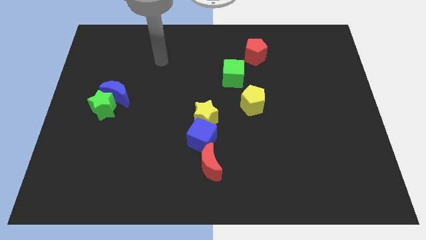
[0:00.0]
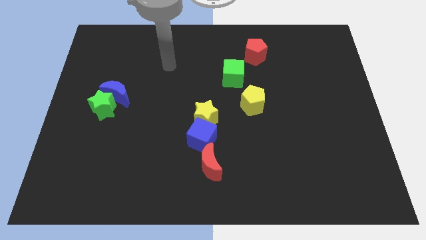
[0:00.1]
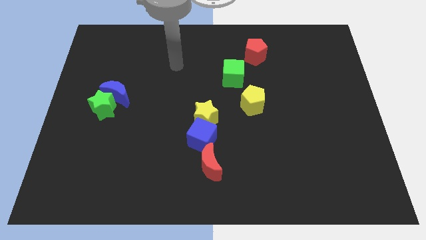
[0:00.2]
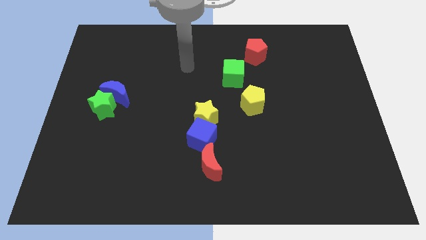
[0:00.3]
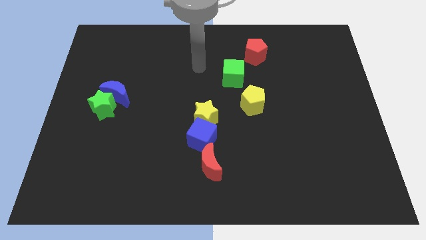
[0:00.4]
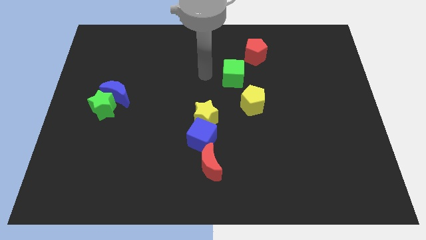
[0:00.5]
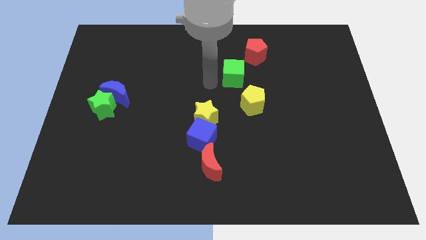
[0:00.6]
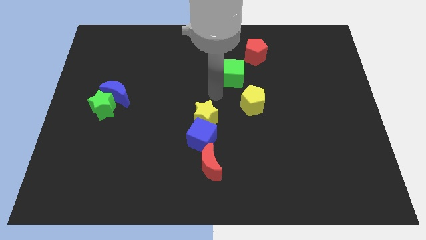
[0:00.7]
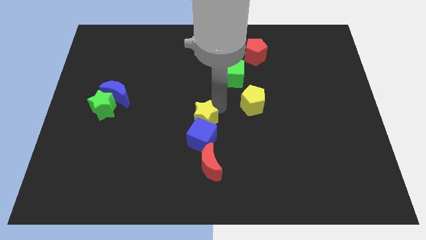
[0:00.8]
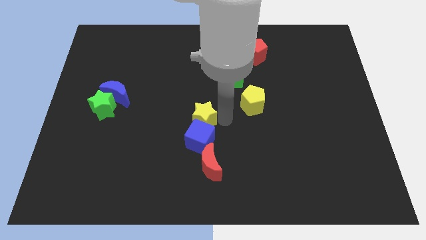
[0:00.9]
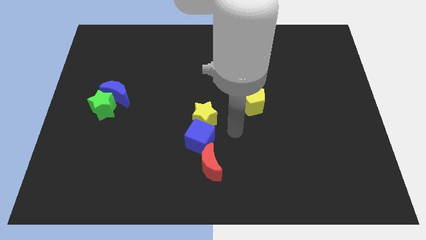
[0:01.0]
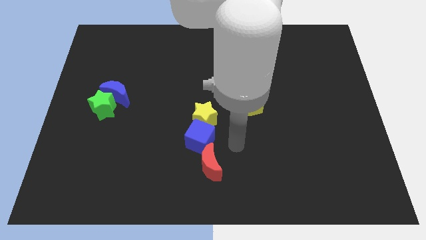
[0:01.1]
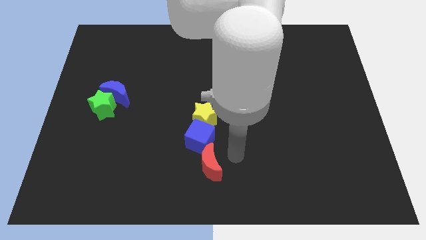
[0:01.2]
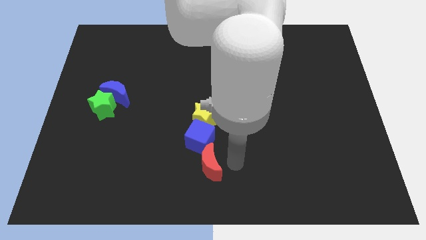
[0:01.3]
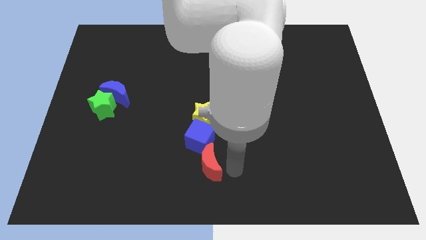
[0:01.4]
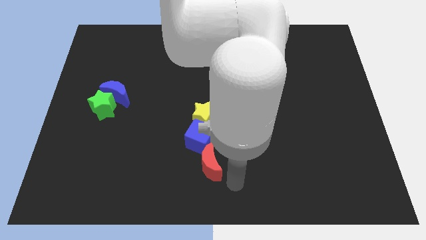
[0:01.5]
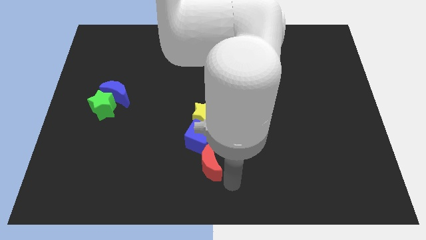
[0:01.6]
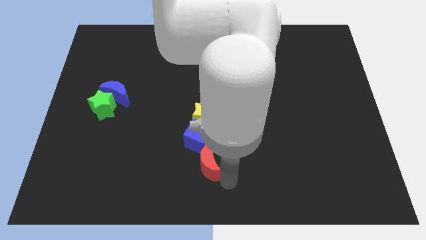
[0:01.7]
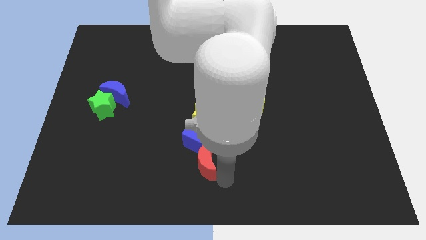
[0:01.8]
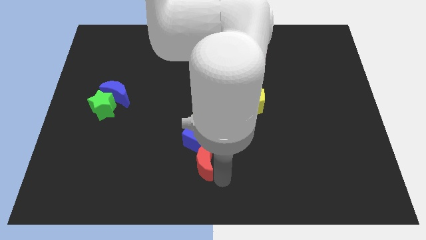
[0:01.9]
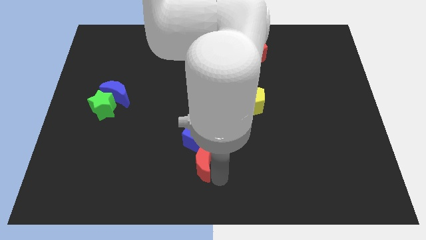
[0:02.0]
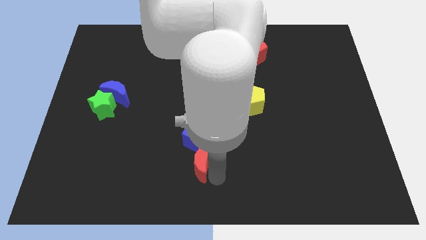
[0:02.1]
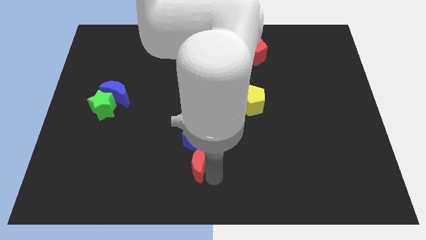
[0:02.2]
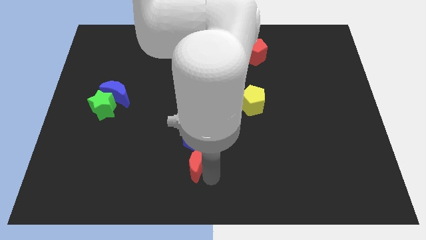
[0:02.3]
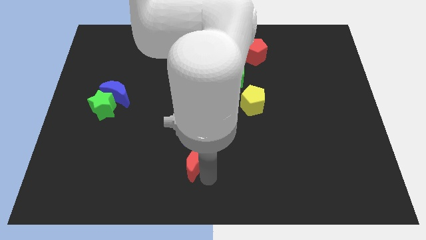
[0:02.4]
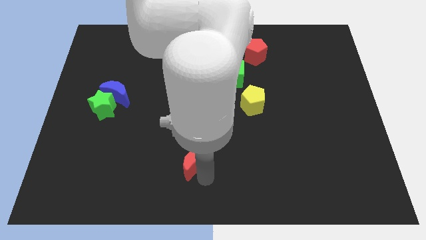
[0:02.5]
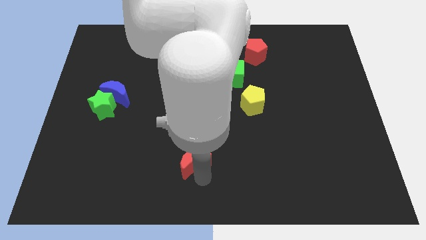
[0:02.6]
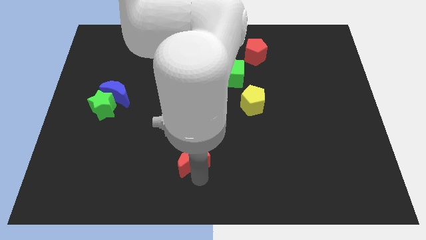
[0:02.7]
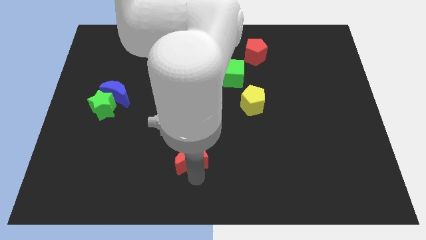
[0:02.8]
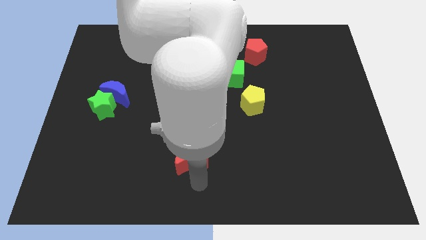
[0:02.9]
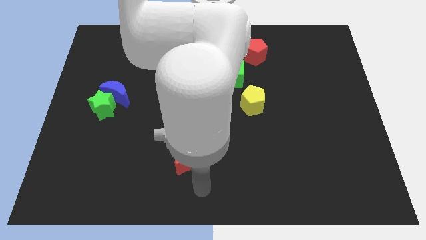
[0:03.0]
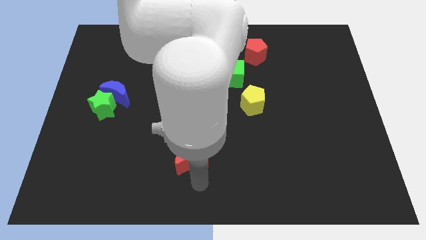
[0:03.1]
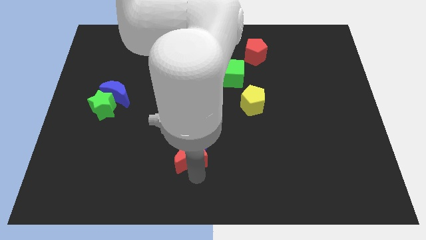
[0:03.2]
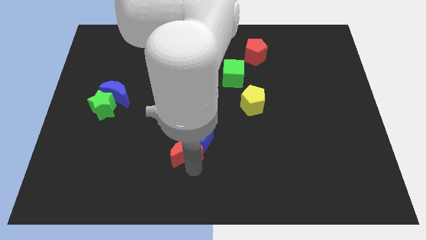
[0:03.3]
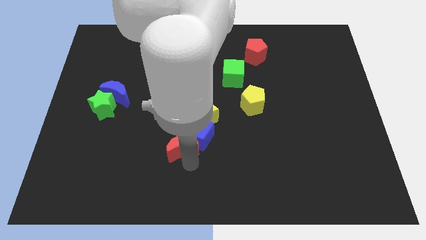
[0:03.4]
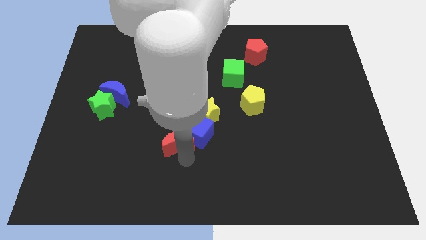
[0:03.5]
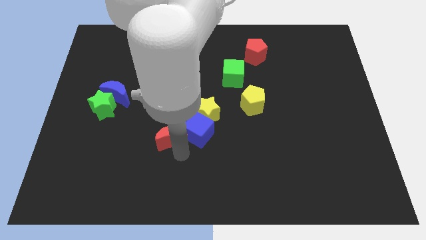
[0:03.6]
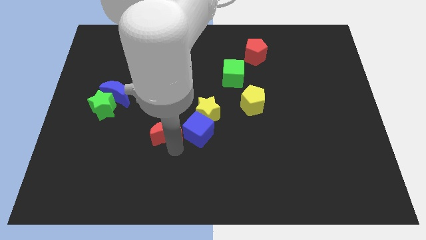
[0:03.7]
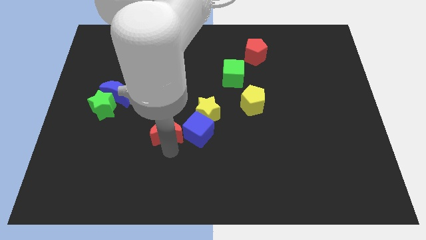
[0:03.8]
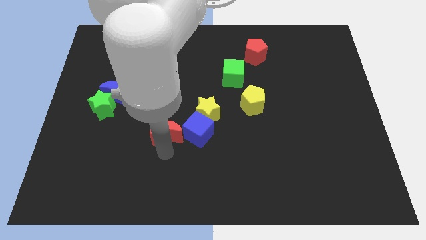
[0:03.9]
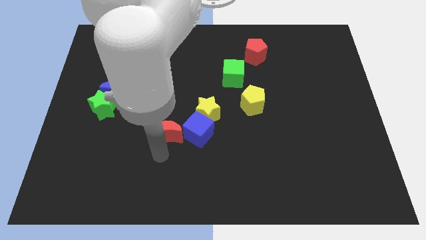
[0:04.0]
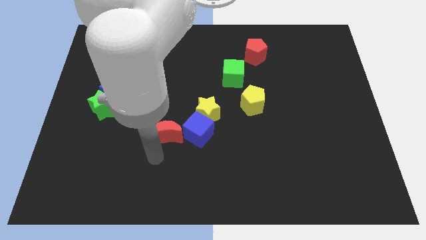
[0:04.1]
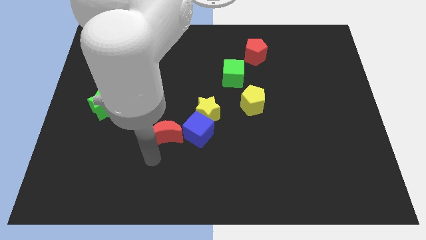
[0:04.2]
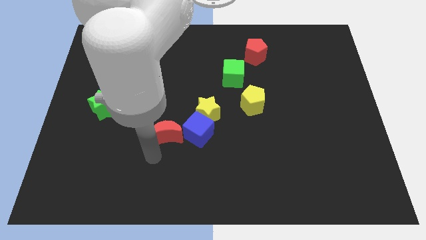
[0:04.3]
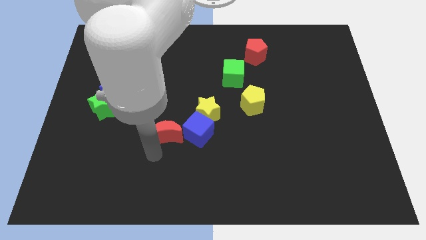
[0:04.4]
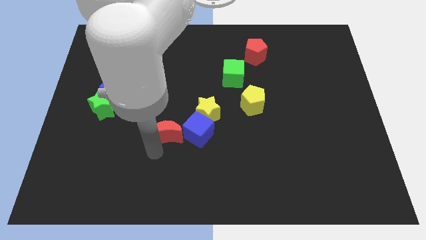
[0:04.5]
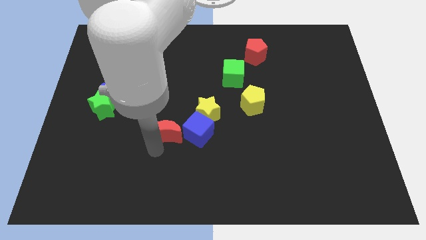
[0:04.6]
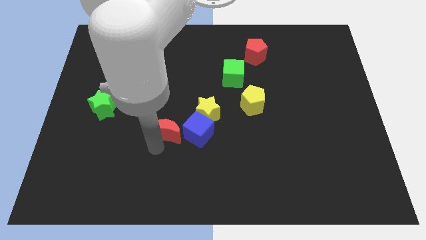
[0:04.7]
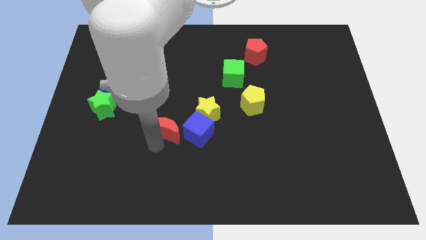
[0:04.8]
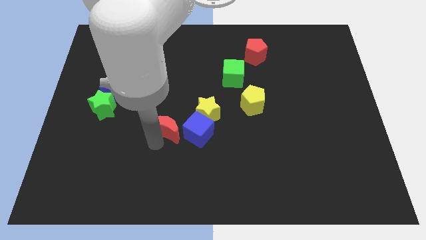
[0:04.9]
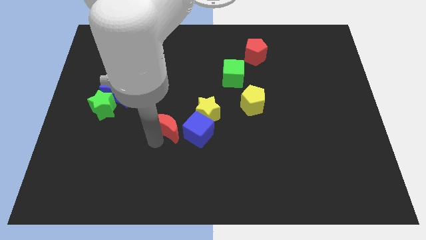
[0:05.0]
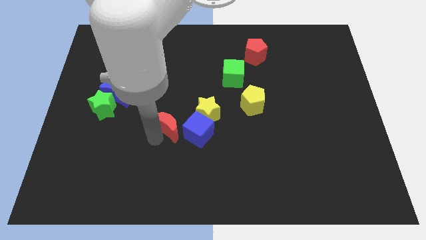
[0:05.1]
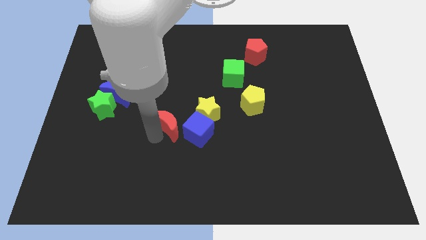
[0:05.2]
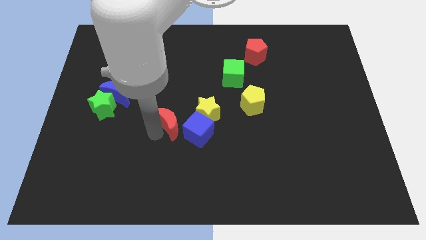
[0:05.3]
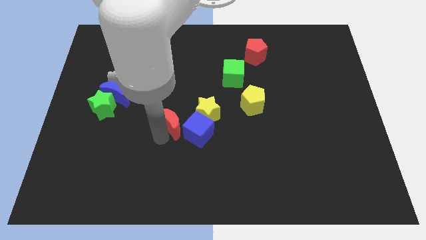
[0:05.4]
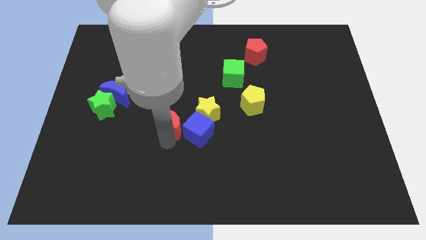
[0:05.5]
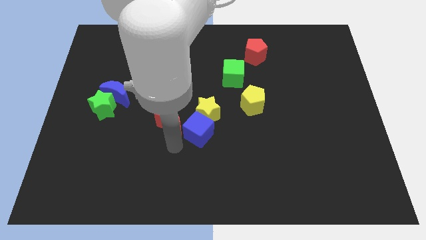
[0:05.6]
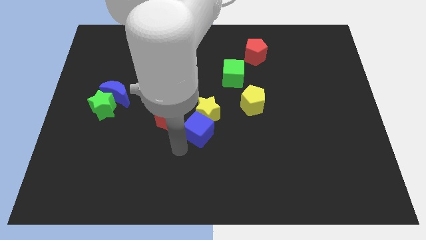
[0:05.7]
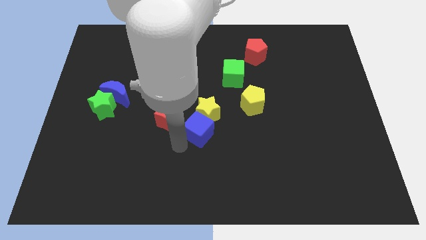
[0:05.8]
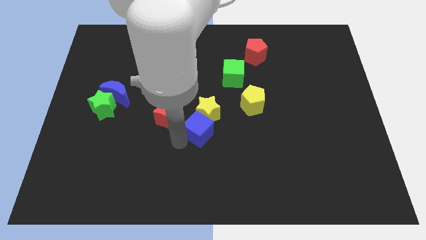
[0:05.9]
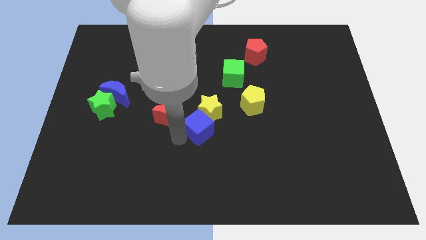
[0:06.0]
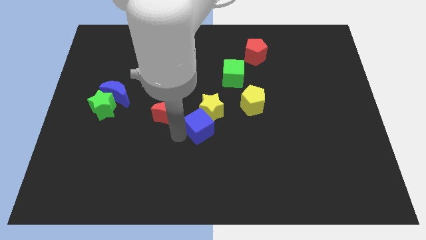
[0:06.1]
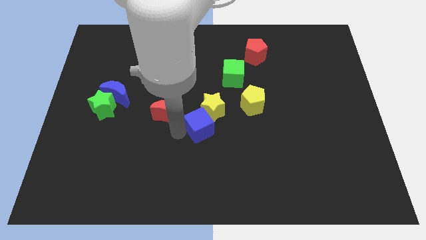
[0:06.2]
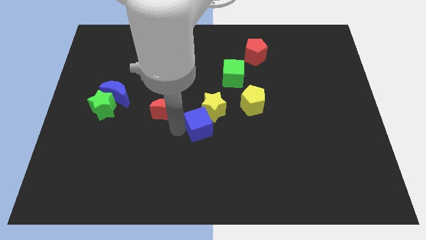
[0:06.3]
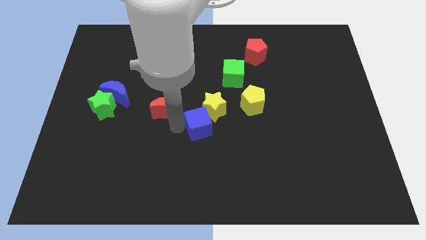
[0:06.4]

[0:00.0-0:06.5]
move the red moon to the right of the blue moon

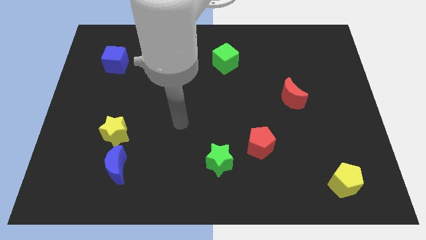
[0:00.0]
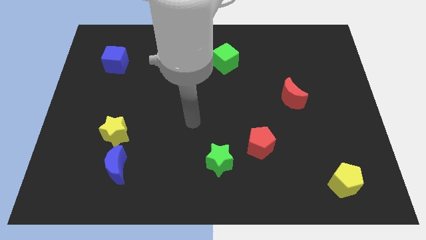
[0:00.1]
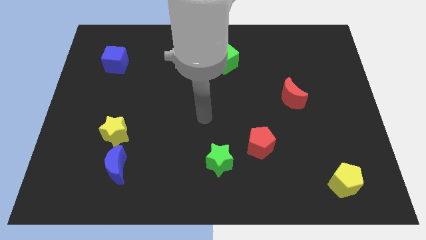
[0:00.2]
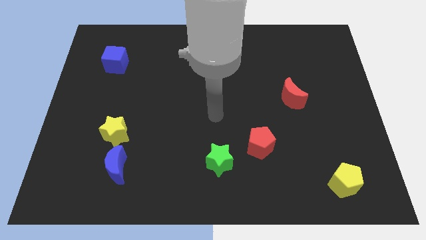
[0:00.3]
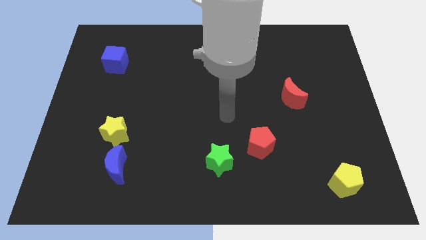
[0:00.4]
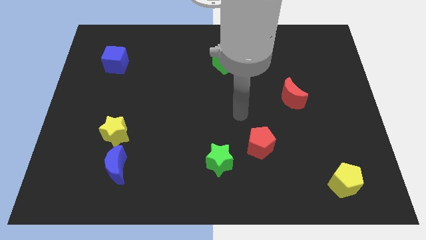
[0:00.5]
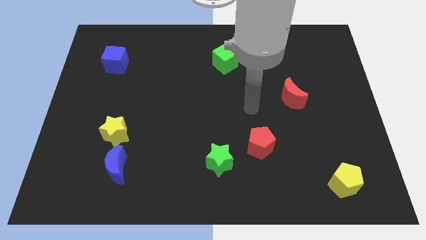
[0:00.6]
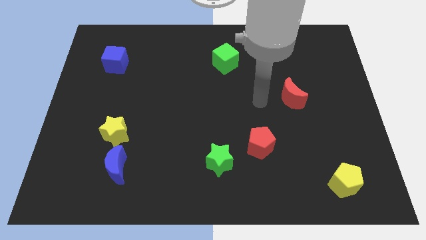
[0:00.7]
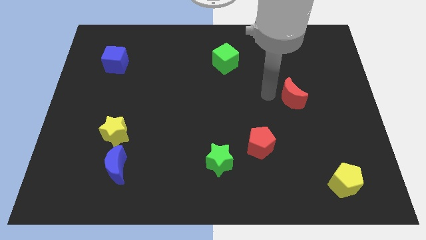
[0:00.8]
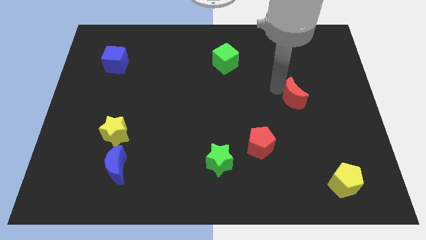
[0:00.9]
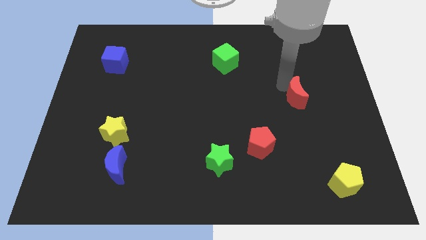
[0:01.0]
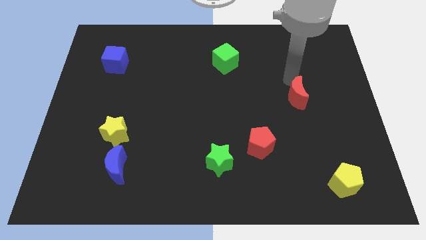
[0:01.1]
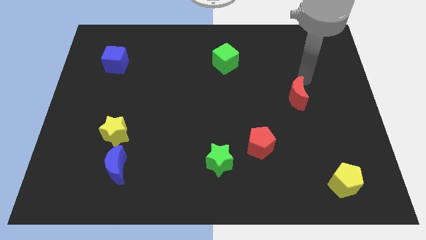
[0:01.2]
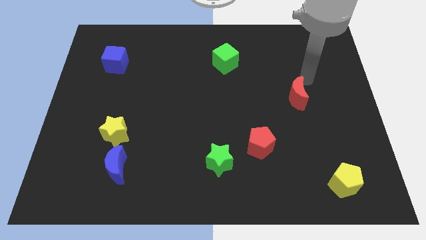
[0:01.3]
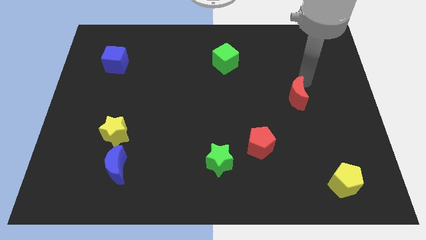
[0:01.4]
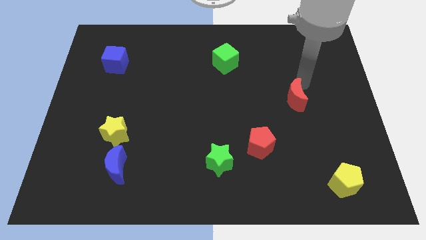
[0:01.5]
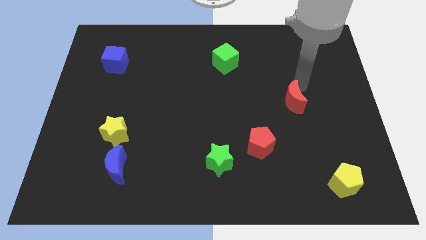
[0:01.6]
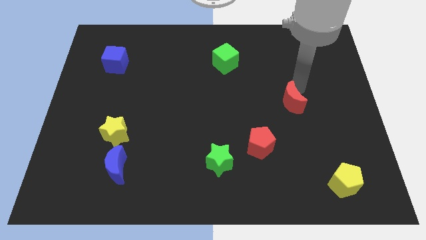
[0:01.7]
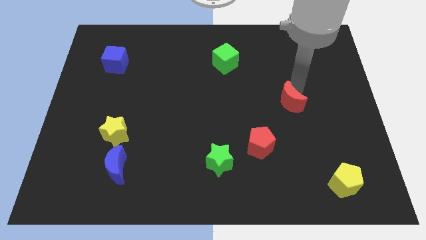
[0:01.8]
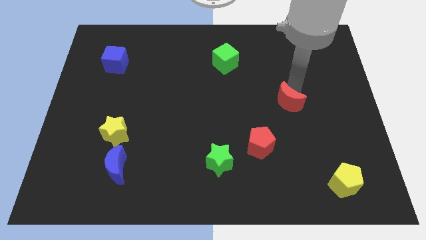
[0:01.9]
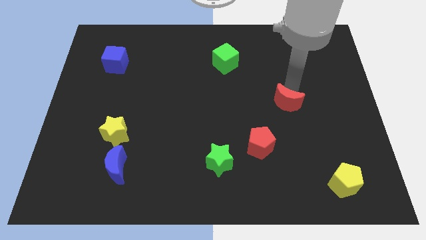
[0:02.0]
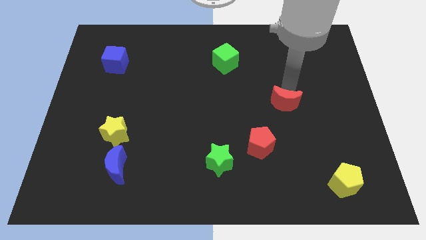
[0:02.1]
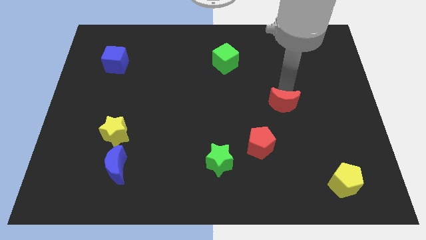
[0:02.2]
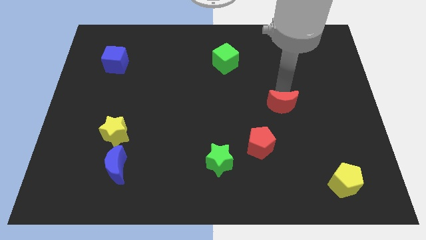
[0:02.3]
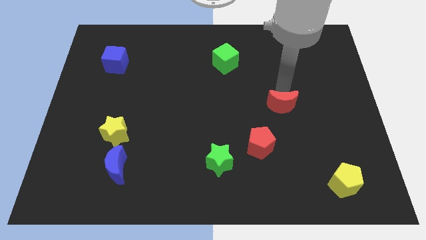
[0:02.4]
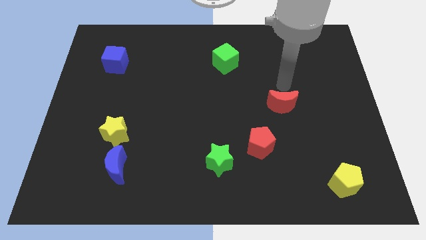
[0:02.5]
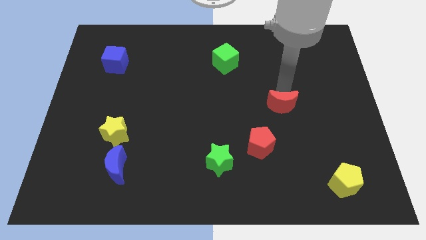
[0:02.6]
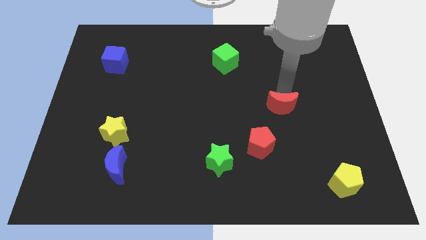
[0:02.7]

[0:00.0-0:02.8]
push the red moon diagonally up and to the right of the red pentagon
